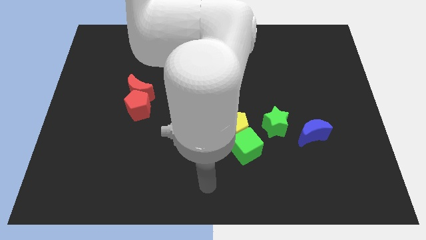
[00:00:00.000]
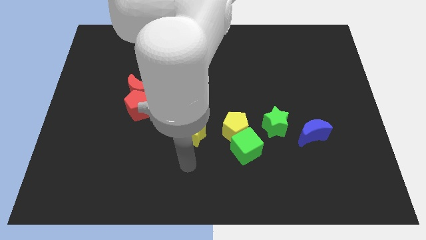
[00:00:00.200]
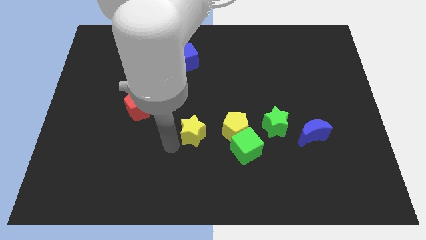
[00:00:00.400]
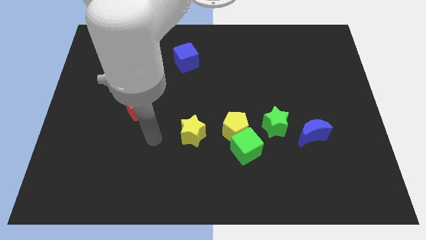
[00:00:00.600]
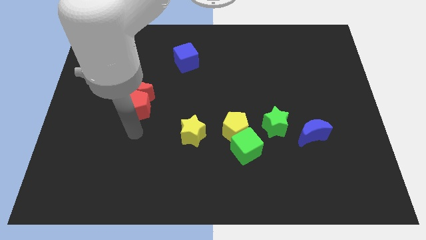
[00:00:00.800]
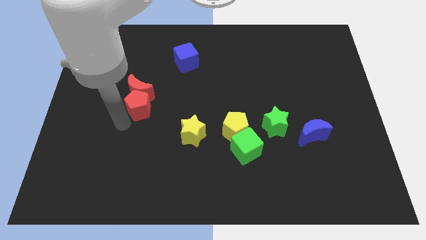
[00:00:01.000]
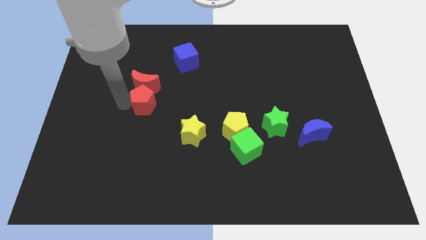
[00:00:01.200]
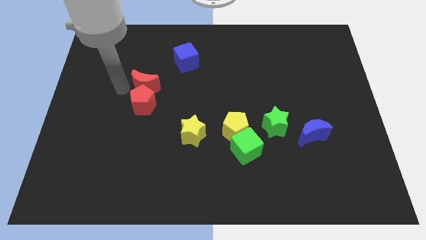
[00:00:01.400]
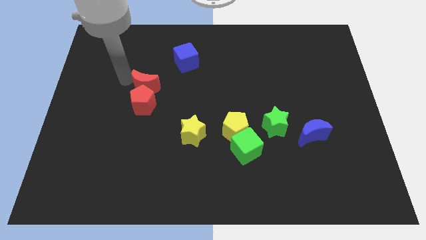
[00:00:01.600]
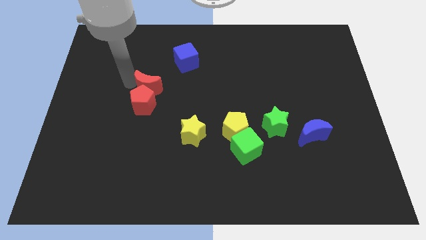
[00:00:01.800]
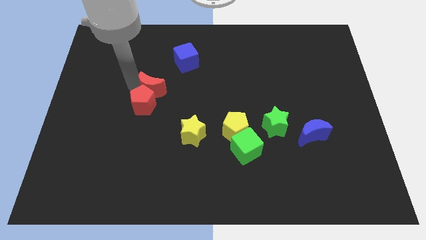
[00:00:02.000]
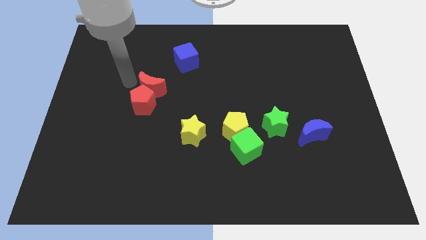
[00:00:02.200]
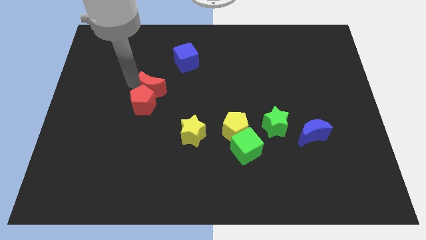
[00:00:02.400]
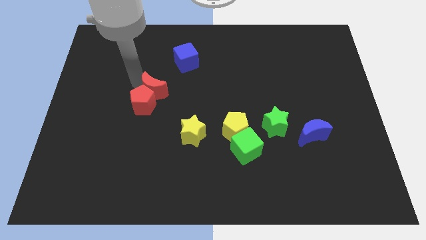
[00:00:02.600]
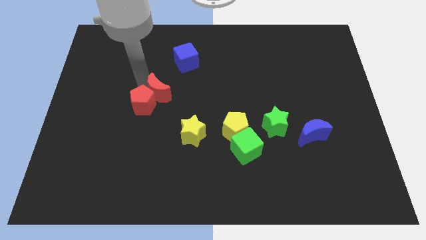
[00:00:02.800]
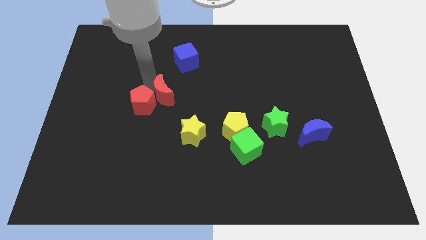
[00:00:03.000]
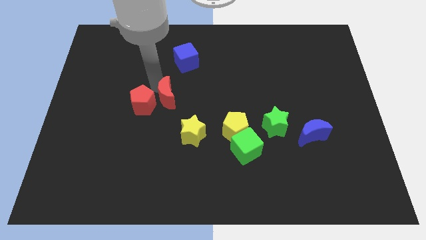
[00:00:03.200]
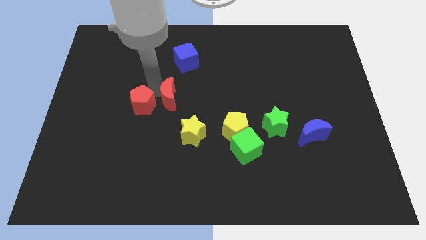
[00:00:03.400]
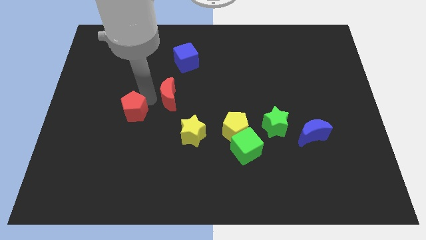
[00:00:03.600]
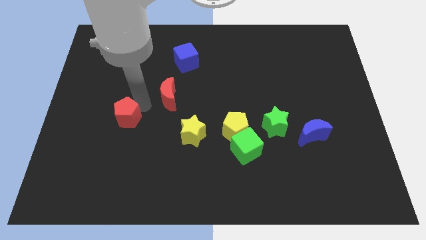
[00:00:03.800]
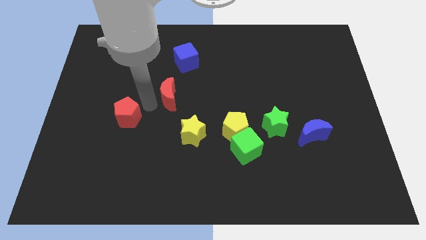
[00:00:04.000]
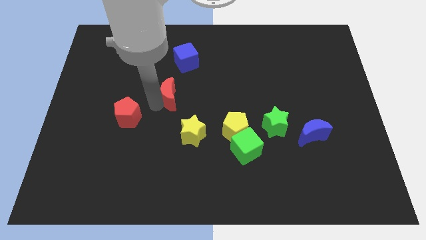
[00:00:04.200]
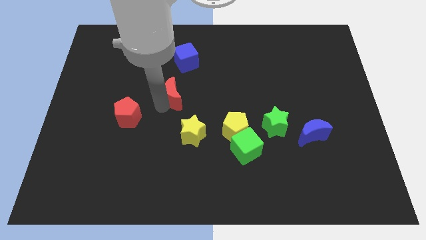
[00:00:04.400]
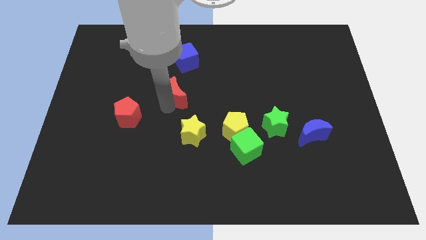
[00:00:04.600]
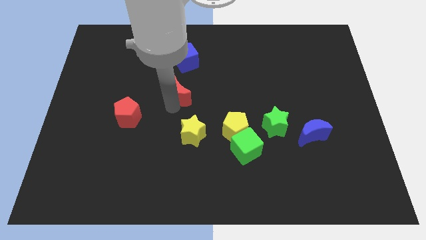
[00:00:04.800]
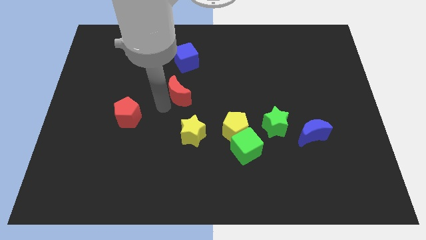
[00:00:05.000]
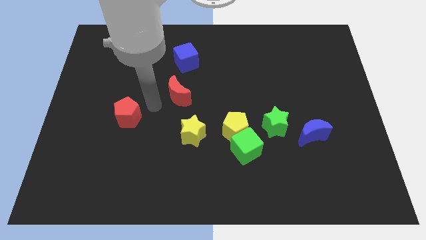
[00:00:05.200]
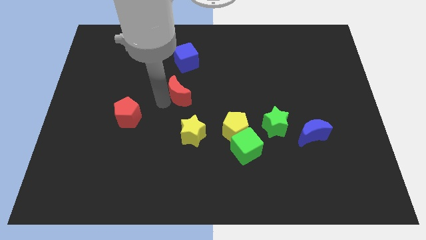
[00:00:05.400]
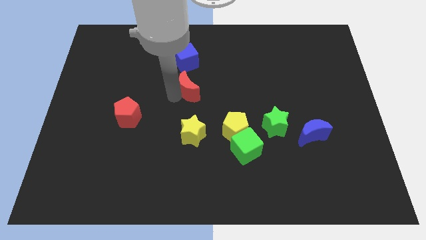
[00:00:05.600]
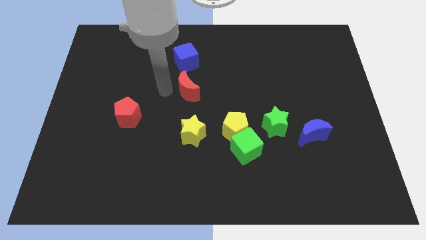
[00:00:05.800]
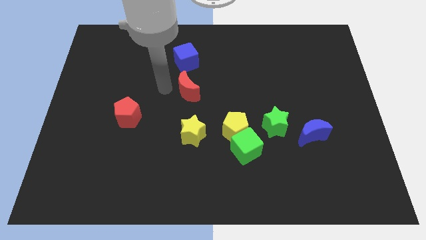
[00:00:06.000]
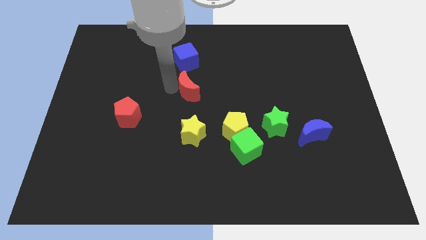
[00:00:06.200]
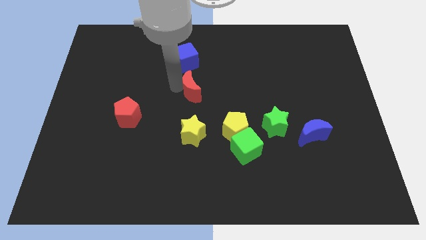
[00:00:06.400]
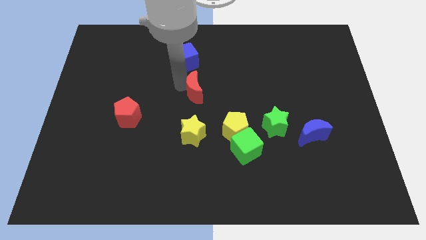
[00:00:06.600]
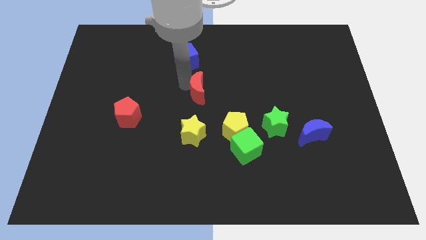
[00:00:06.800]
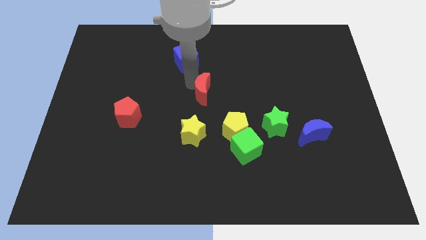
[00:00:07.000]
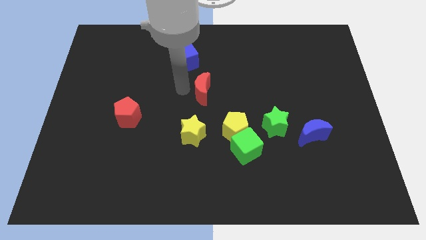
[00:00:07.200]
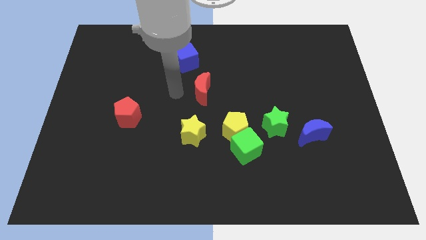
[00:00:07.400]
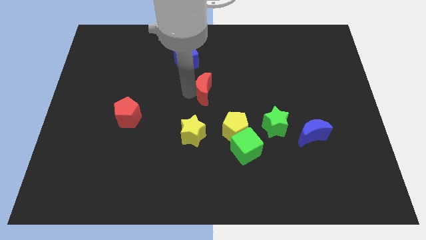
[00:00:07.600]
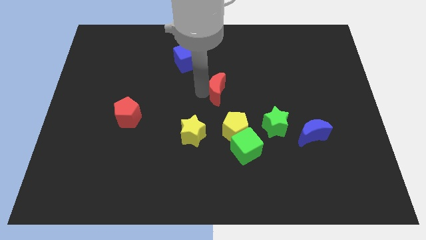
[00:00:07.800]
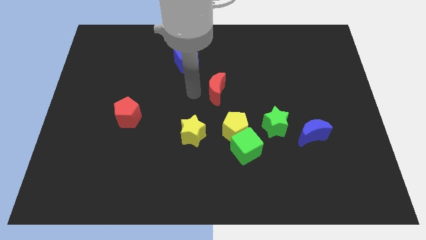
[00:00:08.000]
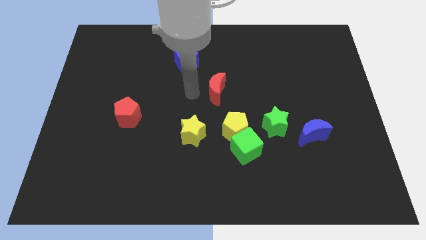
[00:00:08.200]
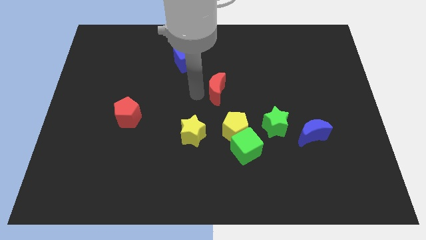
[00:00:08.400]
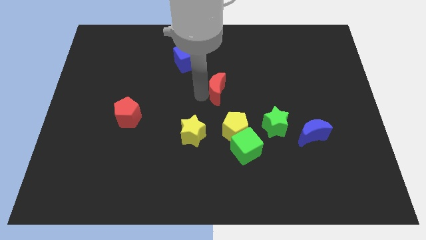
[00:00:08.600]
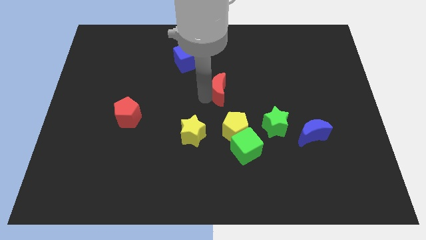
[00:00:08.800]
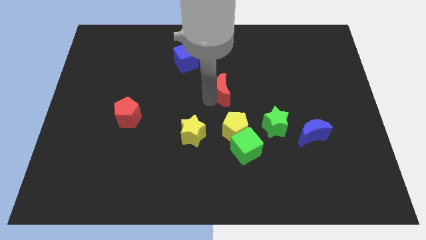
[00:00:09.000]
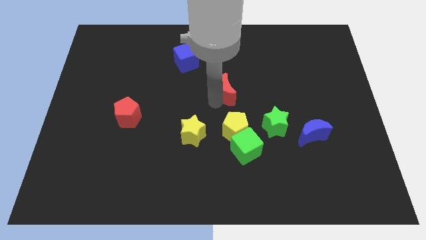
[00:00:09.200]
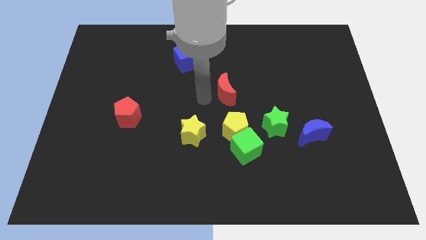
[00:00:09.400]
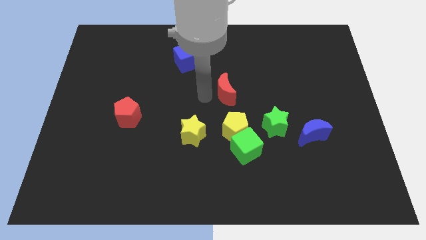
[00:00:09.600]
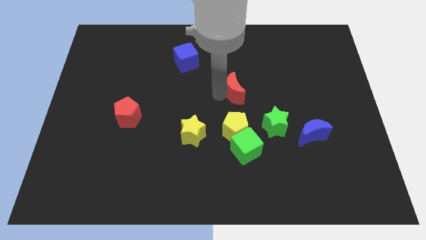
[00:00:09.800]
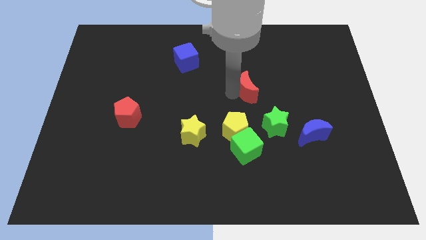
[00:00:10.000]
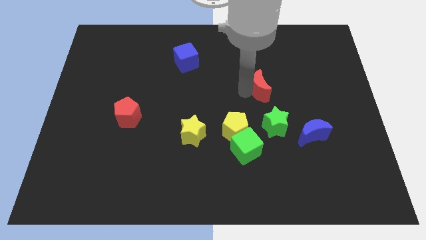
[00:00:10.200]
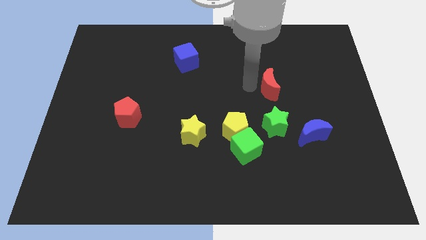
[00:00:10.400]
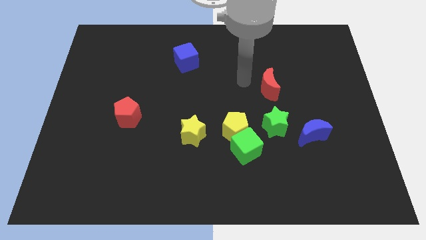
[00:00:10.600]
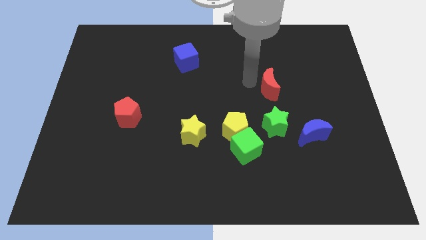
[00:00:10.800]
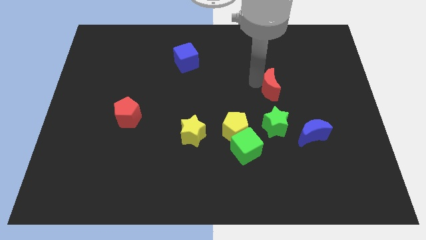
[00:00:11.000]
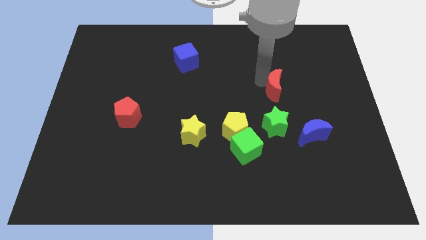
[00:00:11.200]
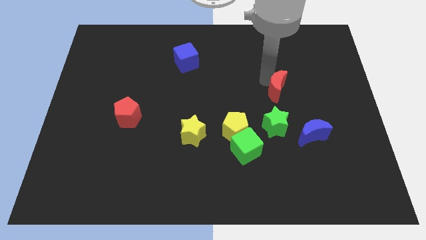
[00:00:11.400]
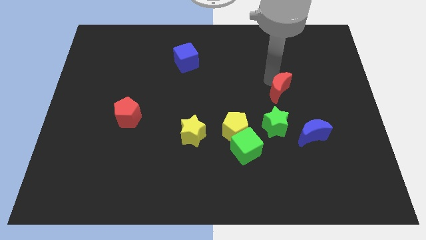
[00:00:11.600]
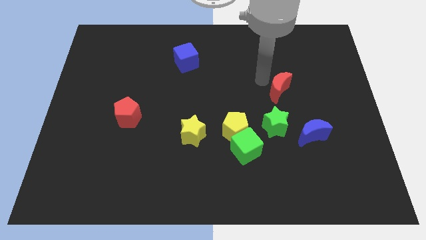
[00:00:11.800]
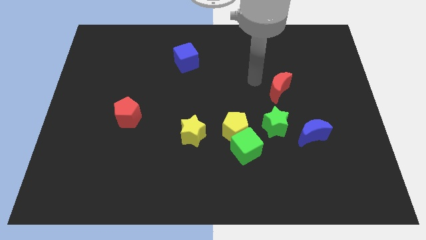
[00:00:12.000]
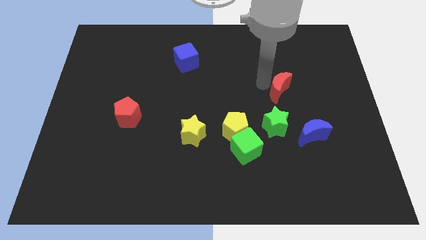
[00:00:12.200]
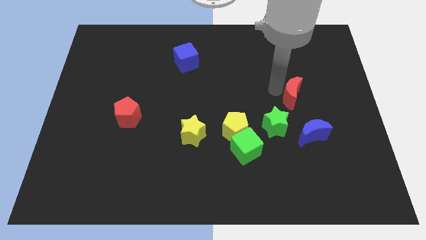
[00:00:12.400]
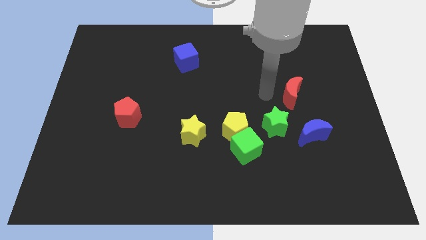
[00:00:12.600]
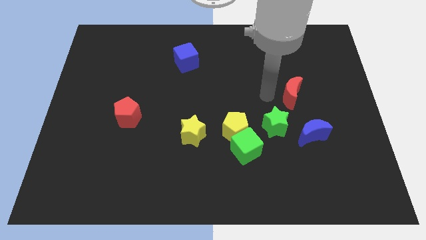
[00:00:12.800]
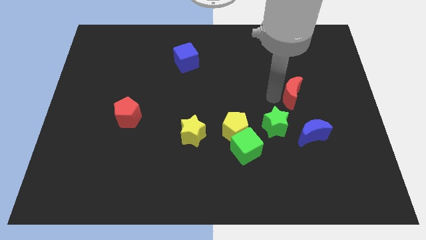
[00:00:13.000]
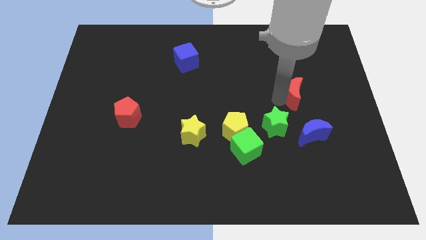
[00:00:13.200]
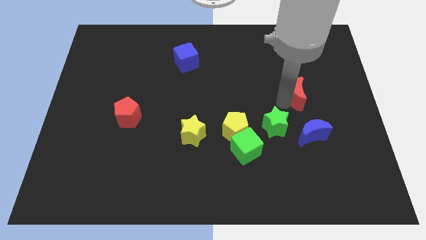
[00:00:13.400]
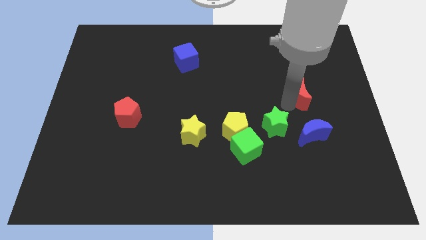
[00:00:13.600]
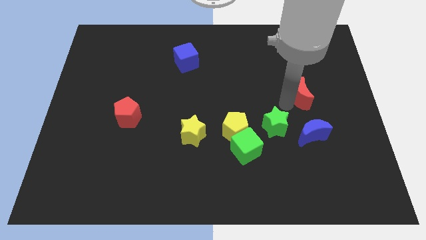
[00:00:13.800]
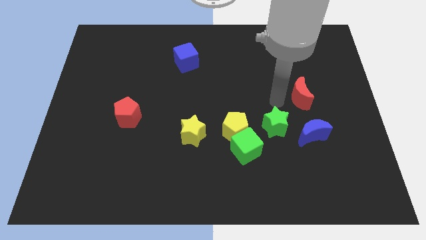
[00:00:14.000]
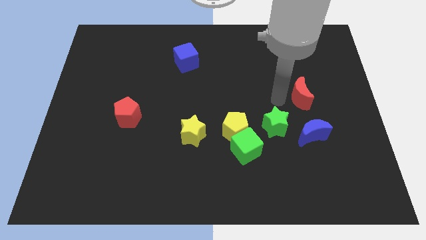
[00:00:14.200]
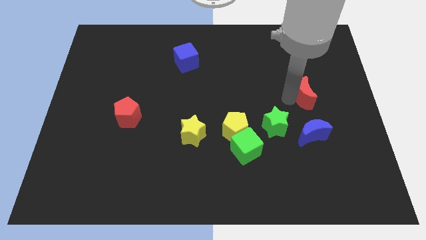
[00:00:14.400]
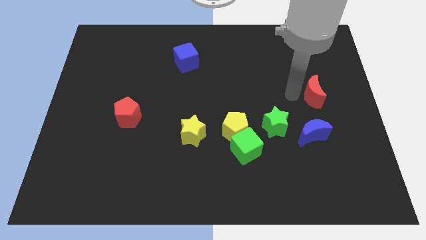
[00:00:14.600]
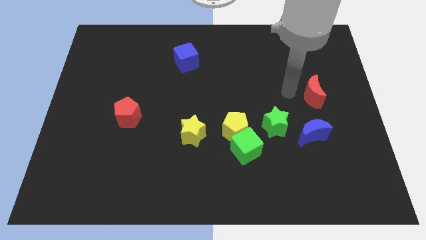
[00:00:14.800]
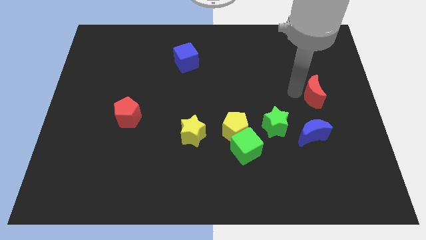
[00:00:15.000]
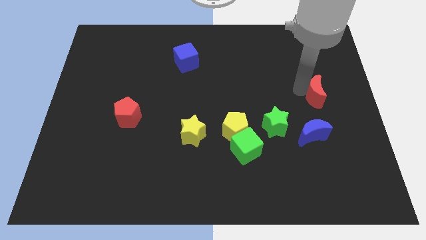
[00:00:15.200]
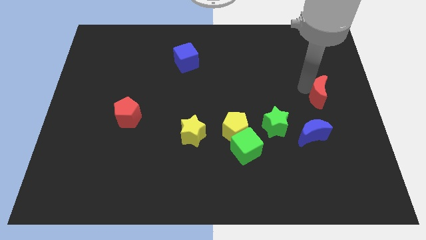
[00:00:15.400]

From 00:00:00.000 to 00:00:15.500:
put the red moon to the right side of the board
